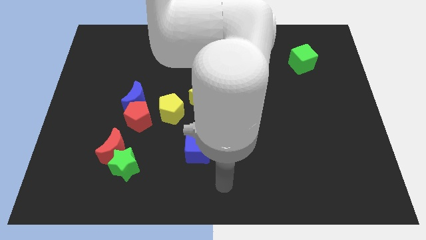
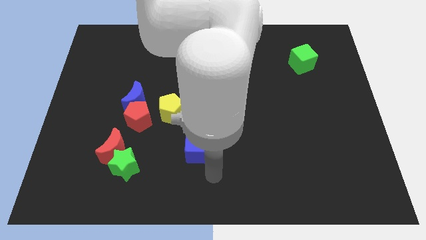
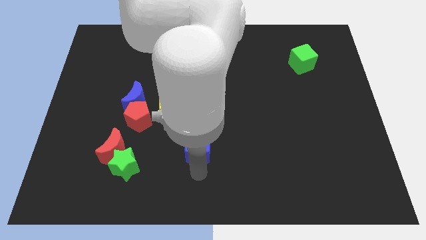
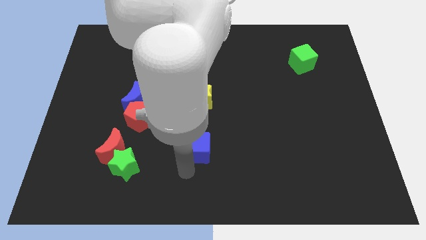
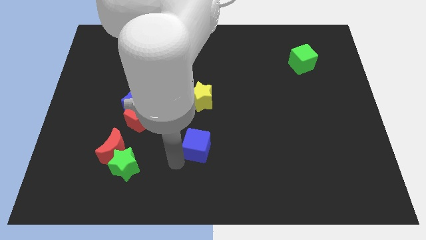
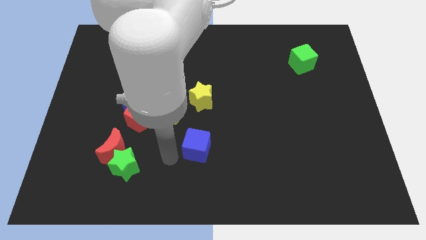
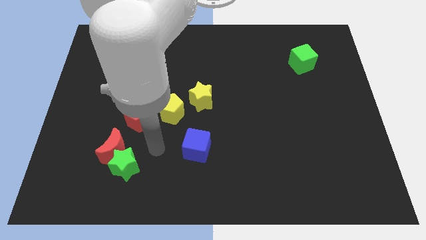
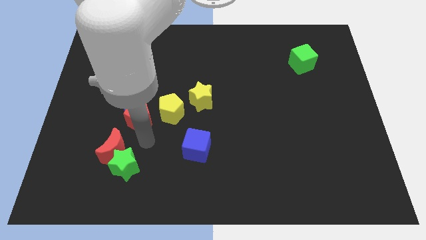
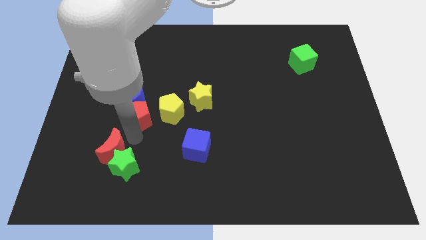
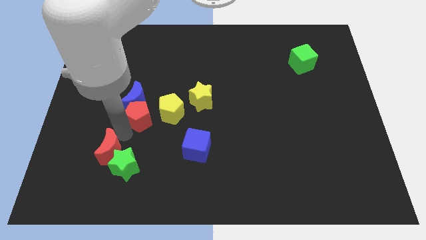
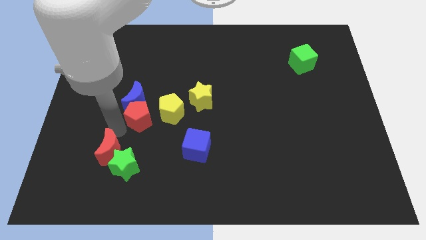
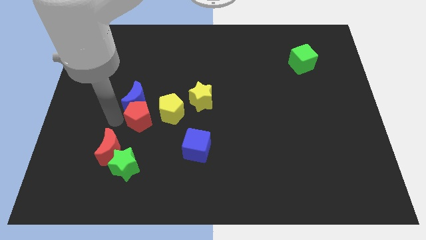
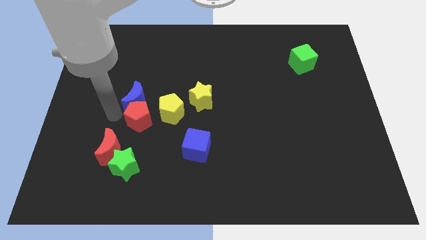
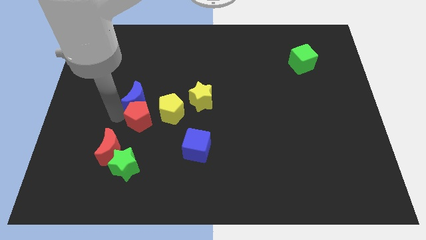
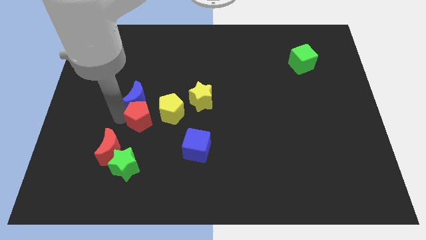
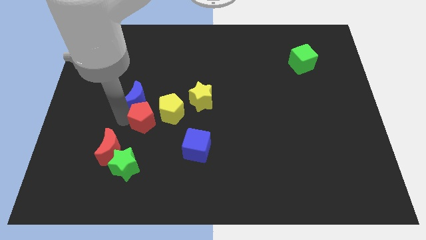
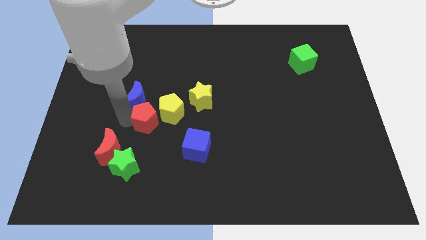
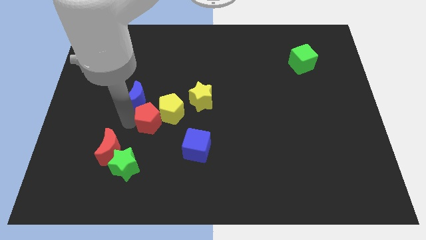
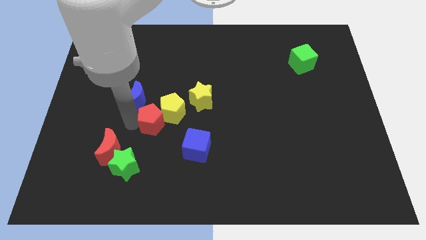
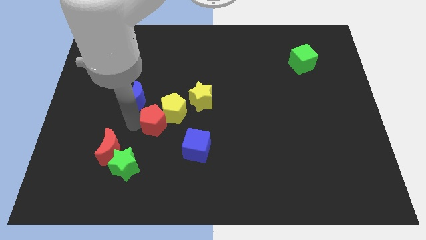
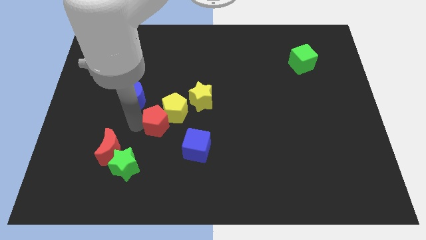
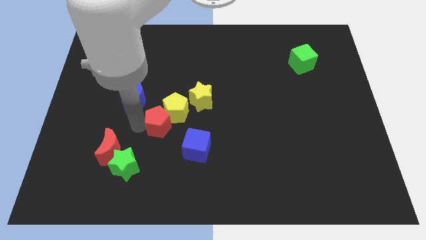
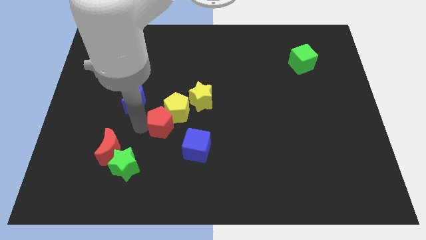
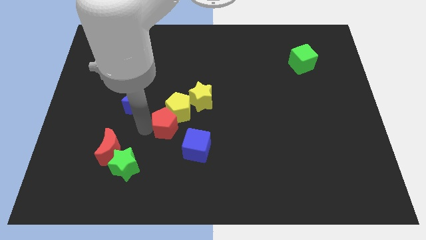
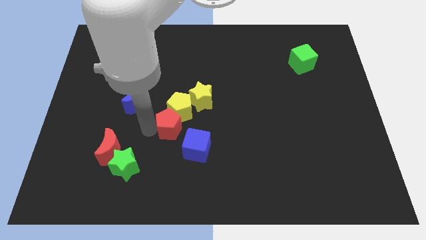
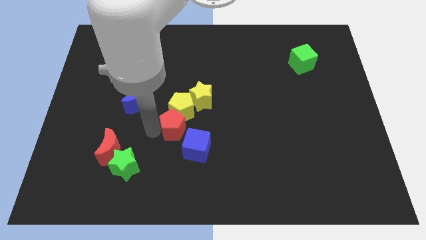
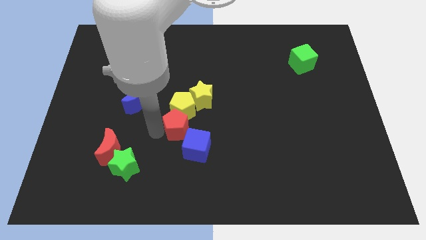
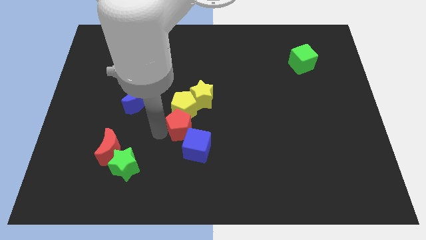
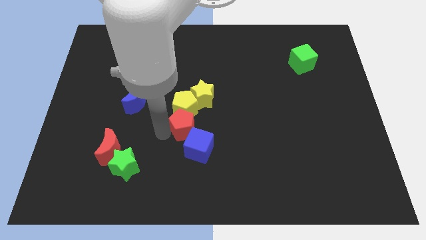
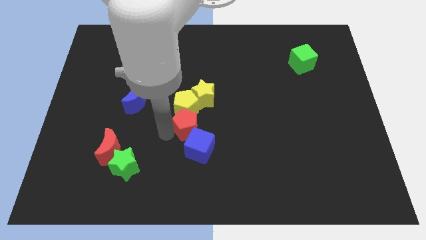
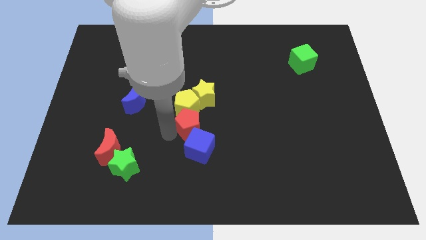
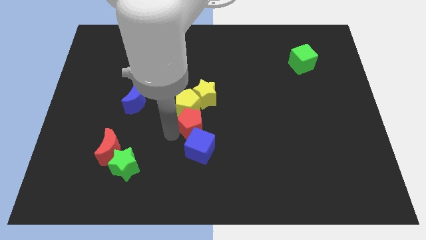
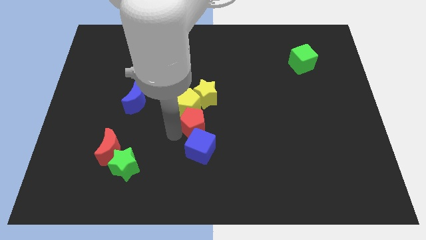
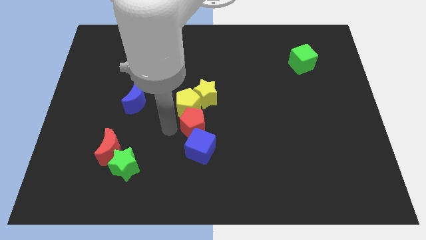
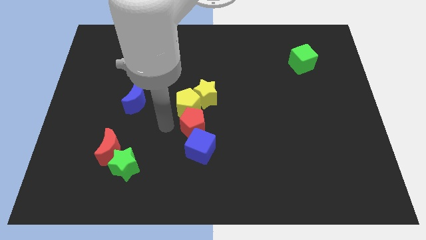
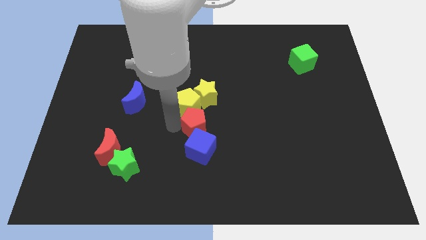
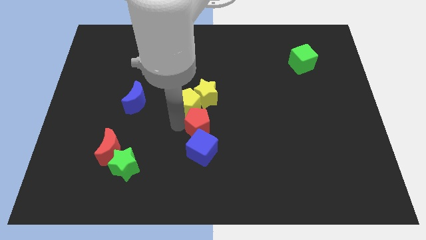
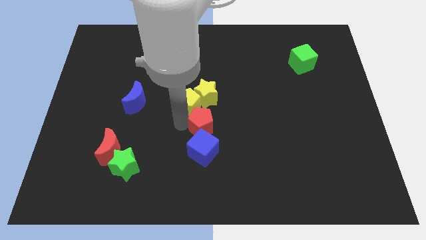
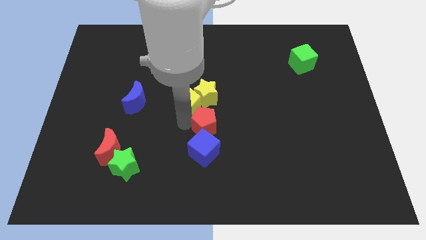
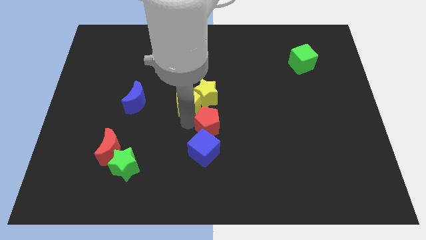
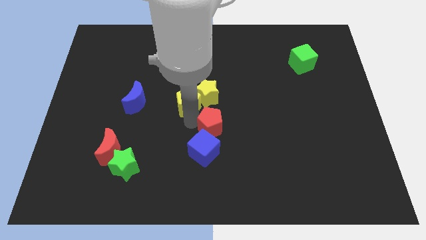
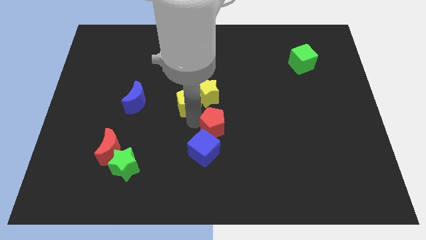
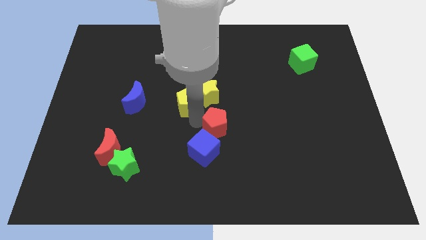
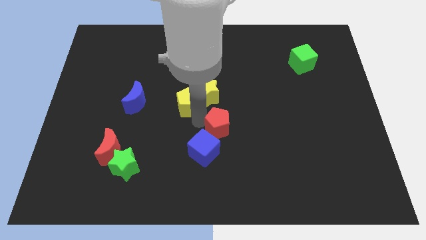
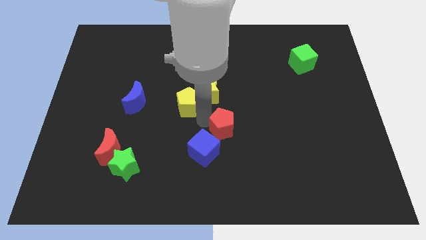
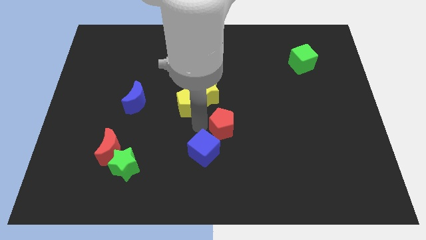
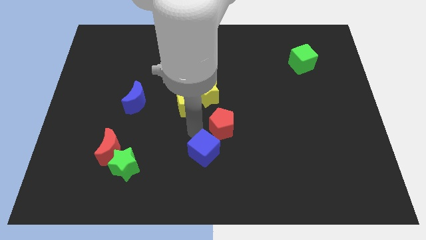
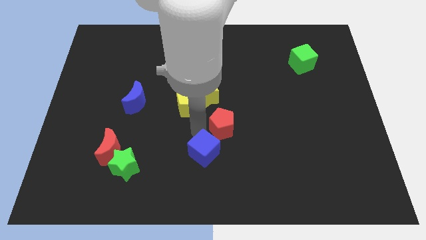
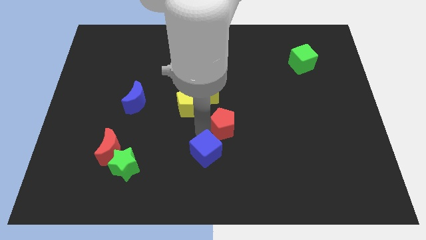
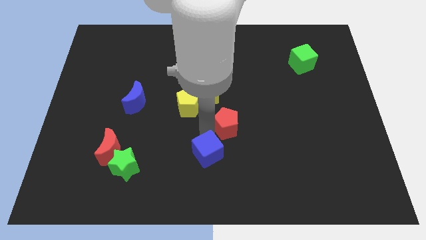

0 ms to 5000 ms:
slide the red pentagon to the right

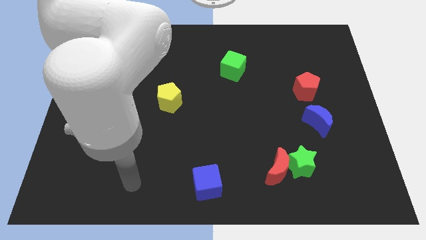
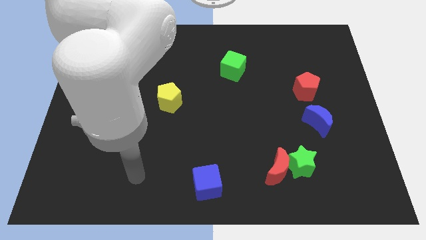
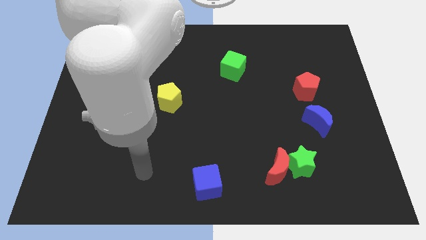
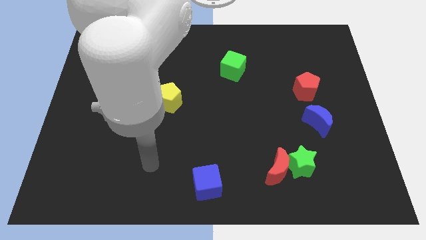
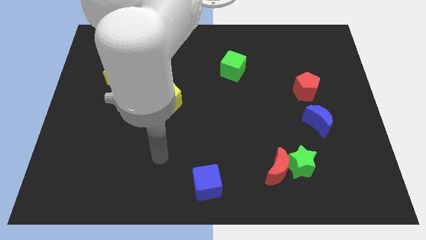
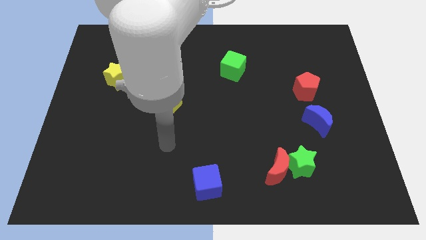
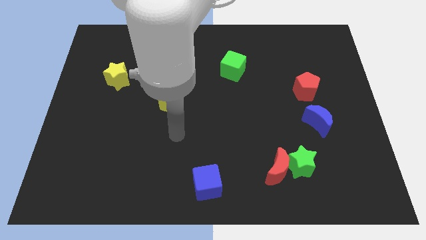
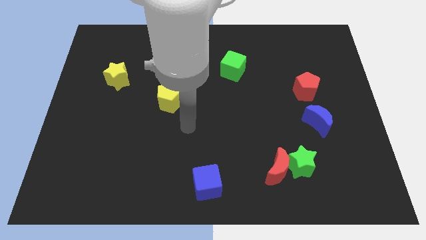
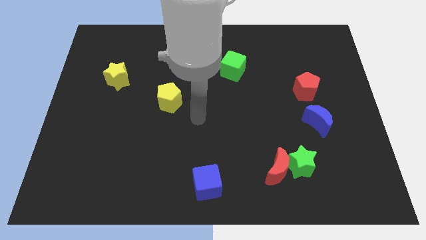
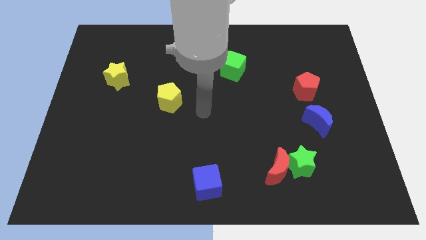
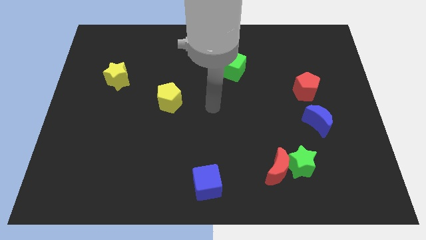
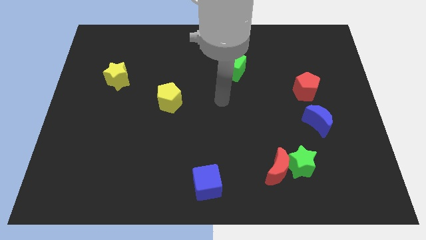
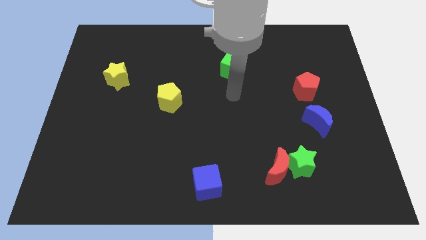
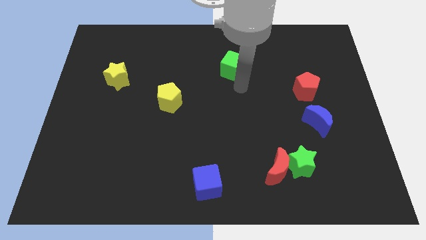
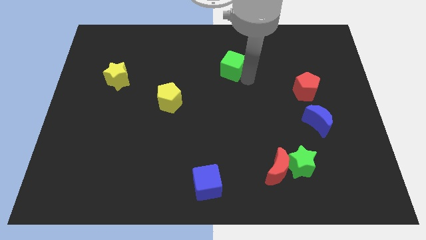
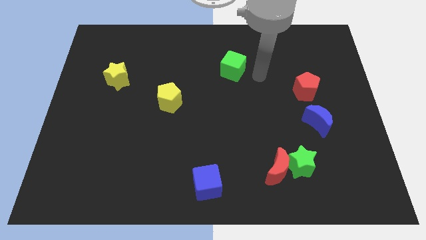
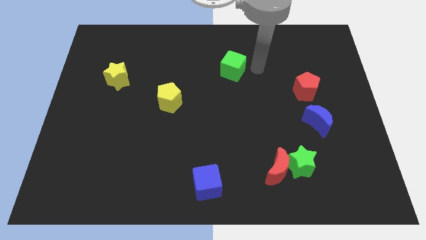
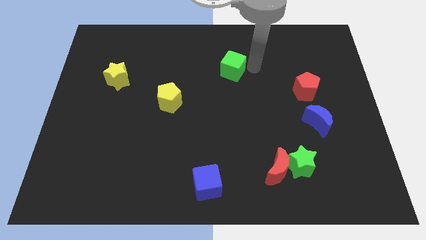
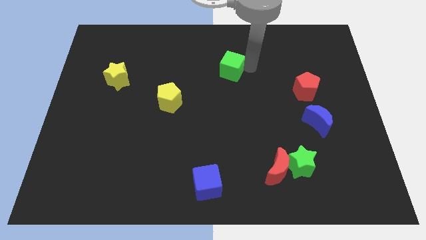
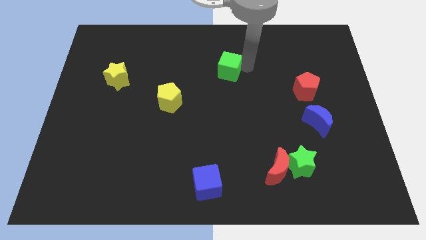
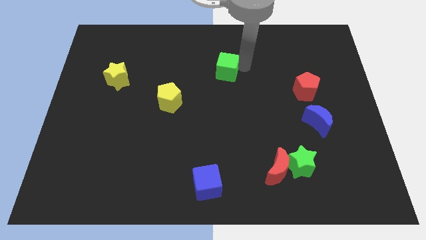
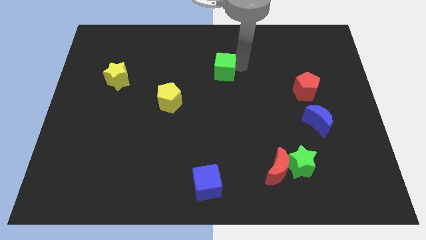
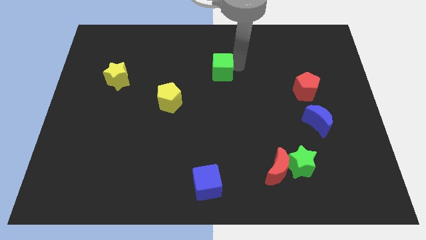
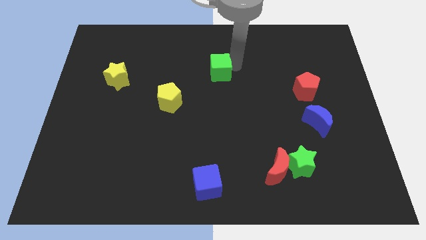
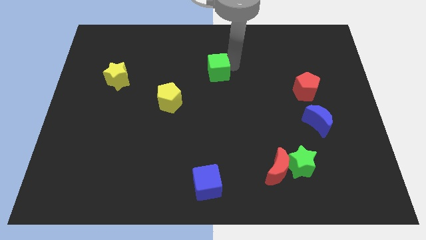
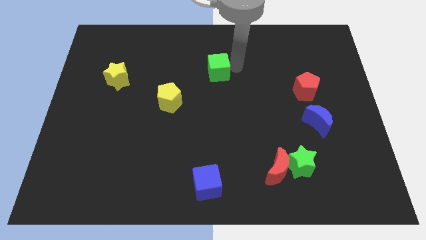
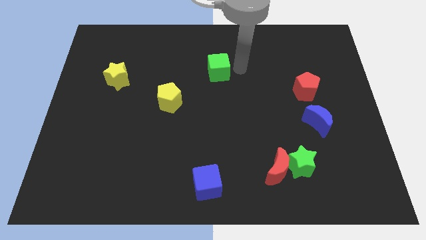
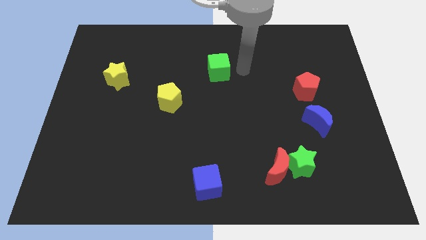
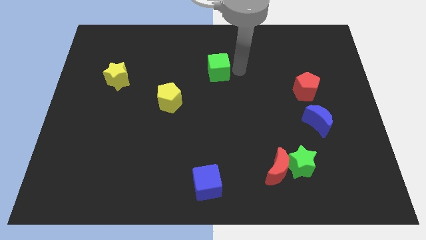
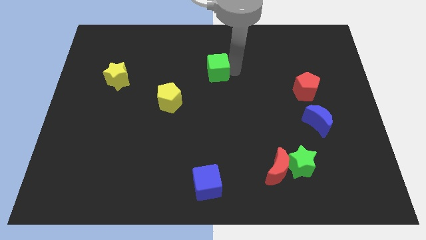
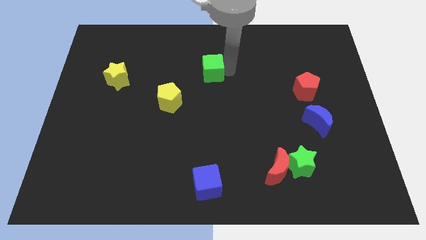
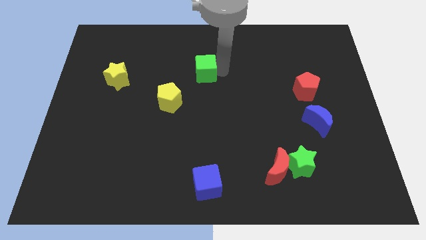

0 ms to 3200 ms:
slide the green cube a bit to the left
